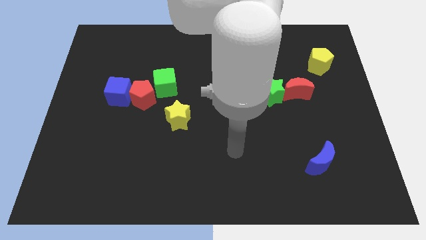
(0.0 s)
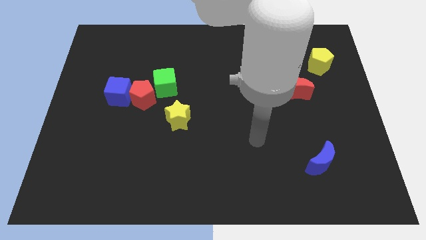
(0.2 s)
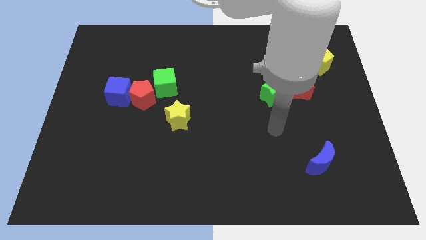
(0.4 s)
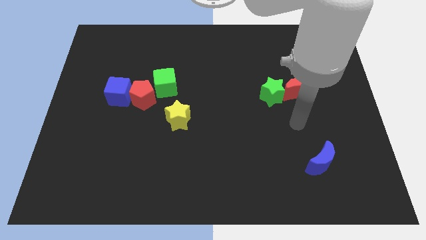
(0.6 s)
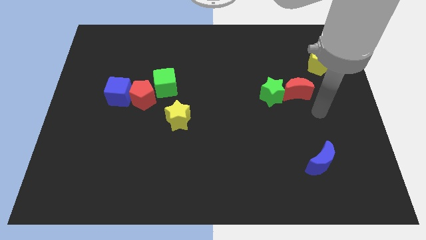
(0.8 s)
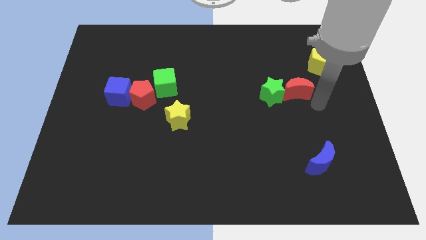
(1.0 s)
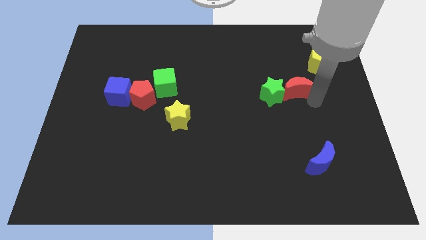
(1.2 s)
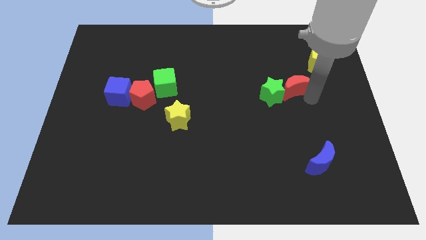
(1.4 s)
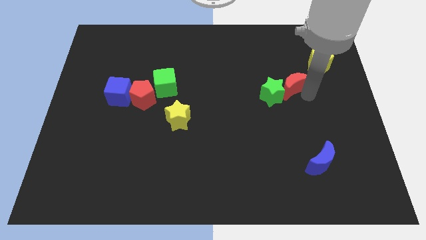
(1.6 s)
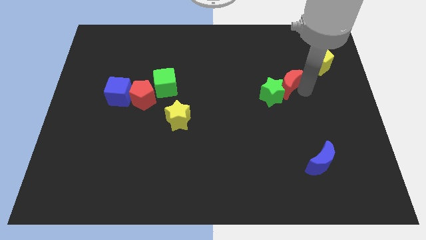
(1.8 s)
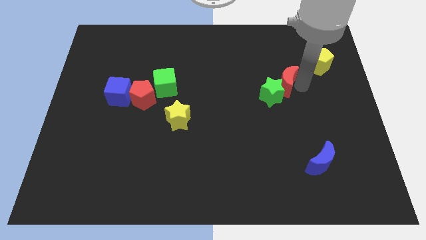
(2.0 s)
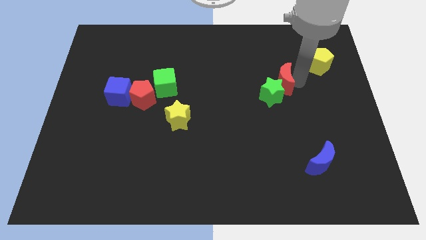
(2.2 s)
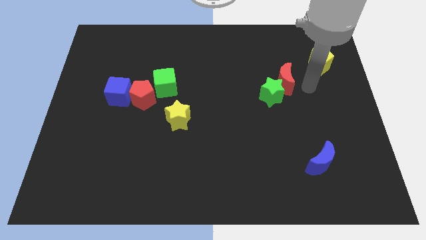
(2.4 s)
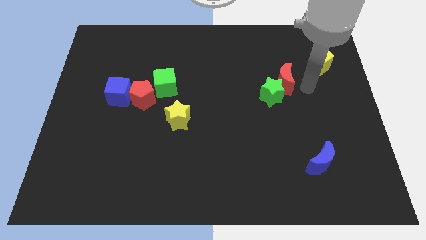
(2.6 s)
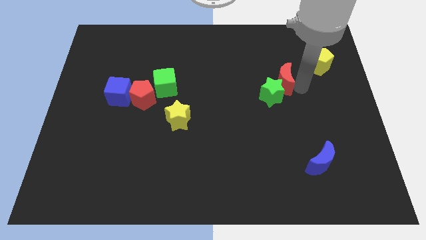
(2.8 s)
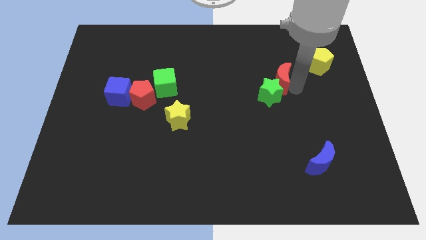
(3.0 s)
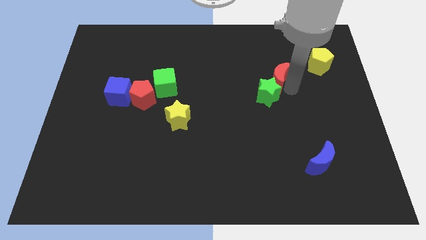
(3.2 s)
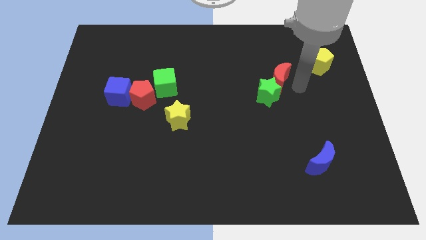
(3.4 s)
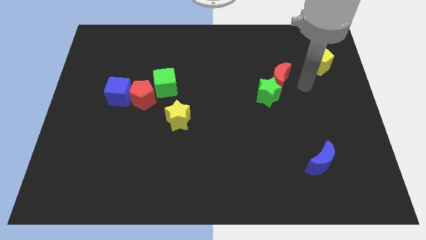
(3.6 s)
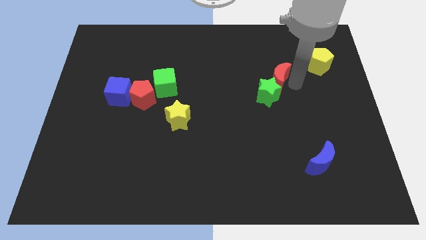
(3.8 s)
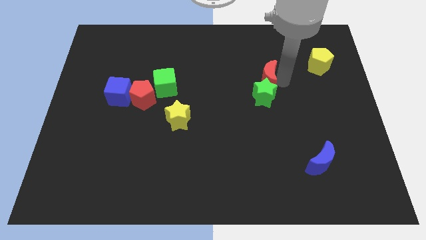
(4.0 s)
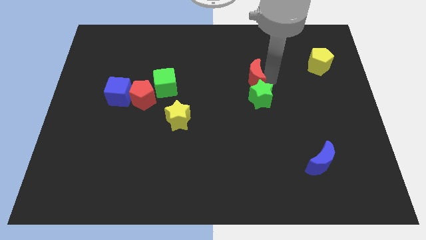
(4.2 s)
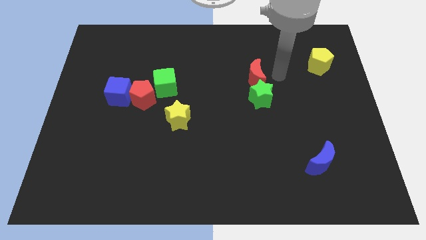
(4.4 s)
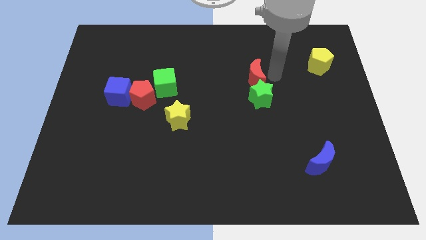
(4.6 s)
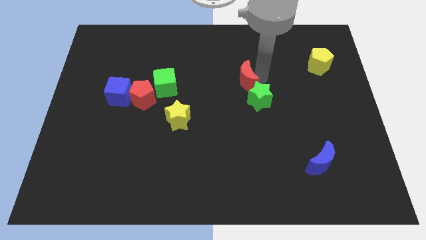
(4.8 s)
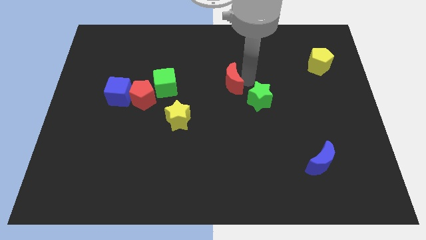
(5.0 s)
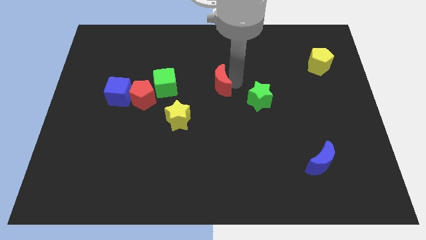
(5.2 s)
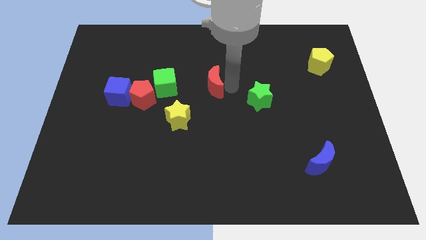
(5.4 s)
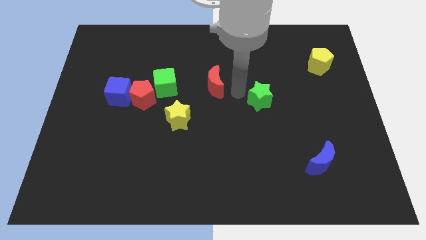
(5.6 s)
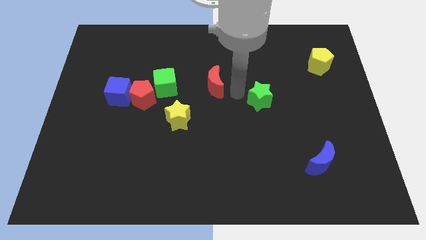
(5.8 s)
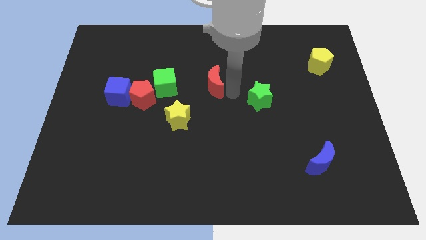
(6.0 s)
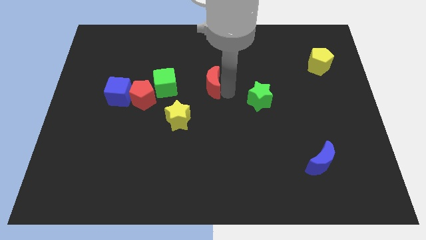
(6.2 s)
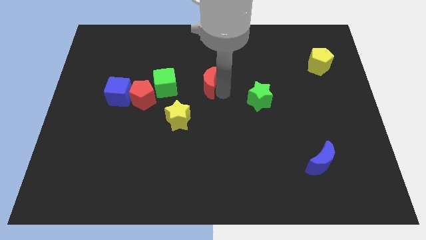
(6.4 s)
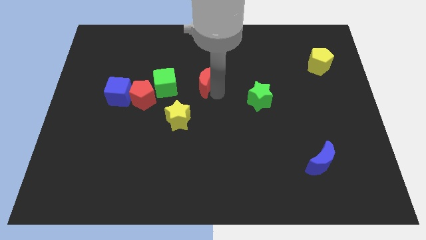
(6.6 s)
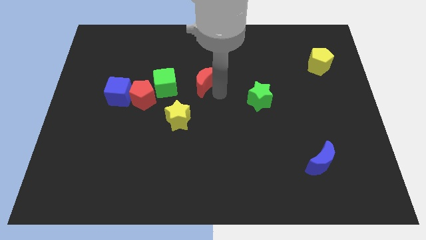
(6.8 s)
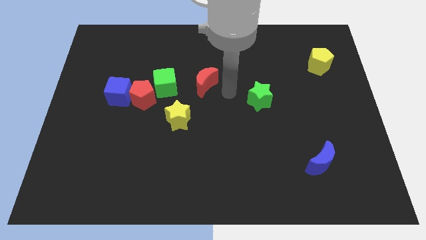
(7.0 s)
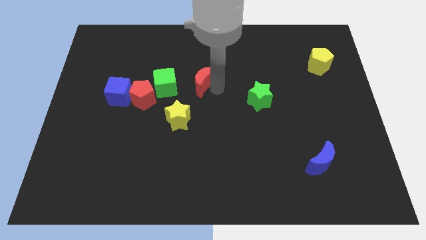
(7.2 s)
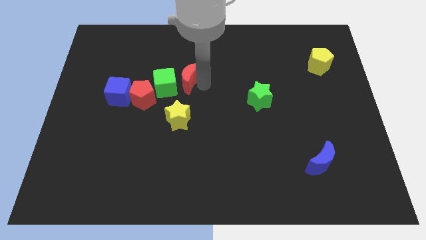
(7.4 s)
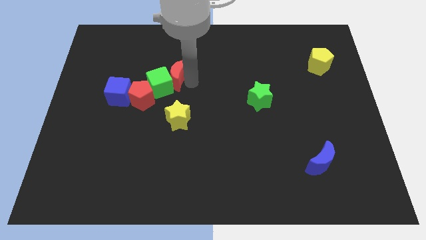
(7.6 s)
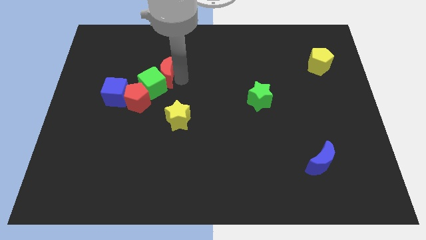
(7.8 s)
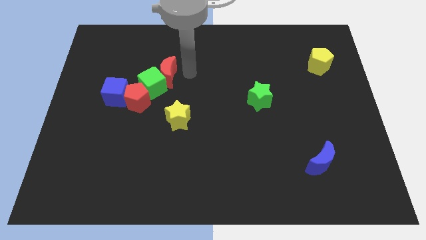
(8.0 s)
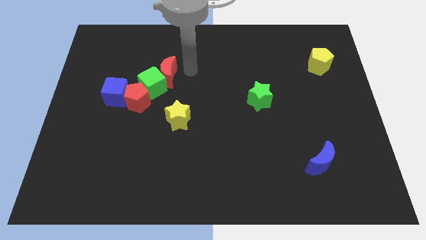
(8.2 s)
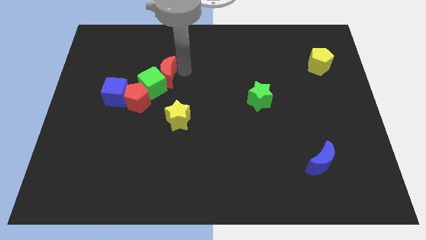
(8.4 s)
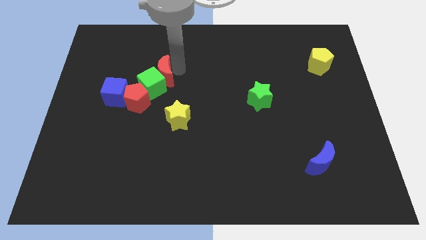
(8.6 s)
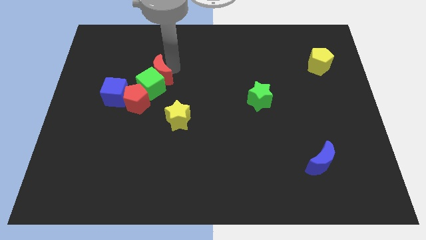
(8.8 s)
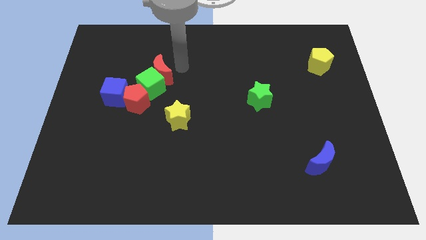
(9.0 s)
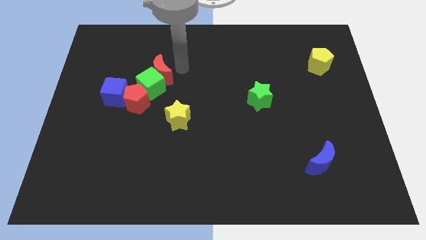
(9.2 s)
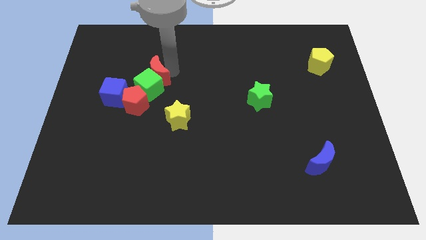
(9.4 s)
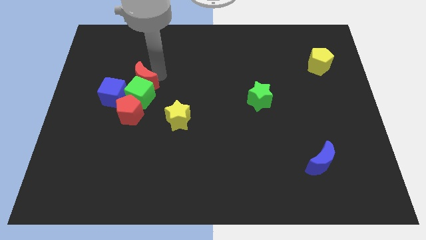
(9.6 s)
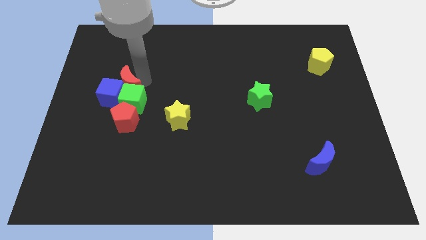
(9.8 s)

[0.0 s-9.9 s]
push the red moon close to the blue cube

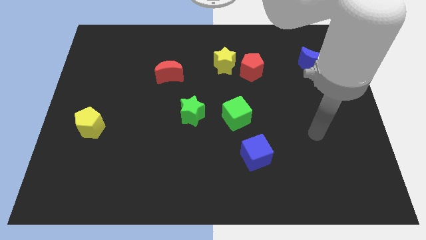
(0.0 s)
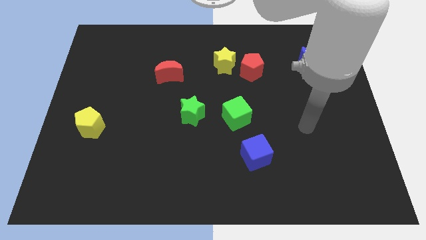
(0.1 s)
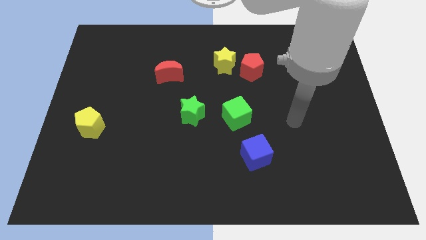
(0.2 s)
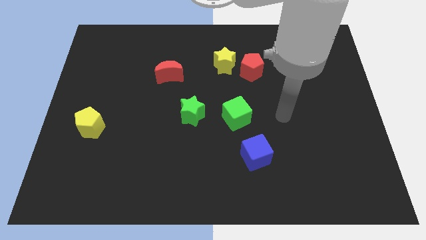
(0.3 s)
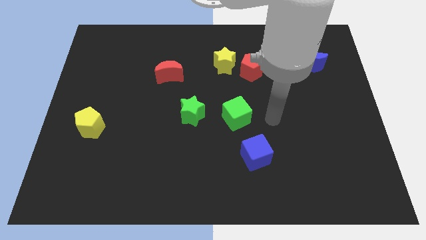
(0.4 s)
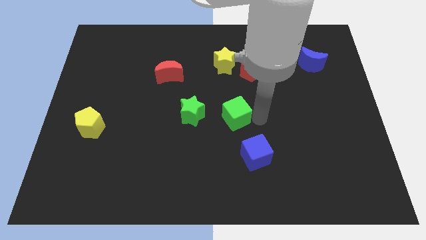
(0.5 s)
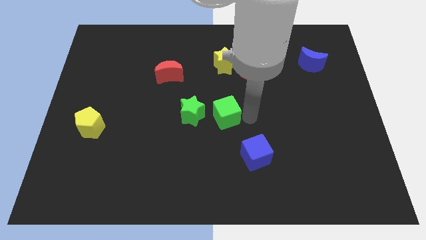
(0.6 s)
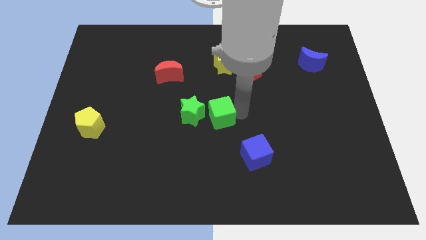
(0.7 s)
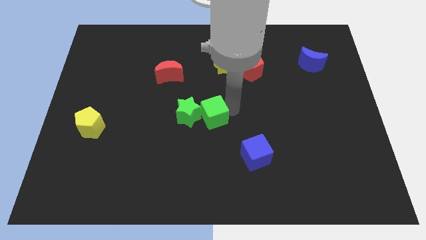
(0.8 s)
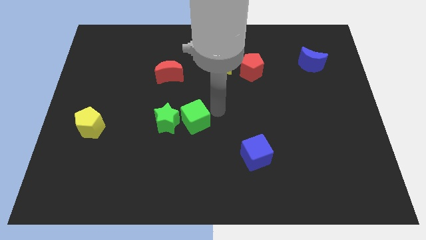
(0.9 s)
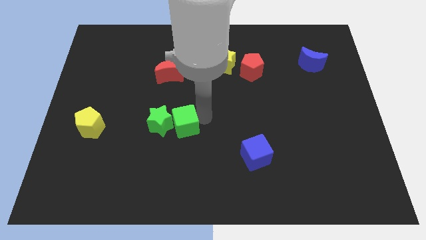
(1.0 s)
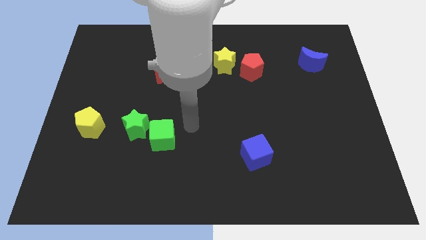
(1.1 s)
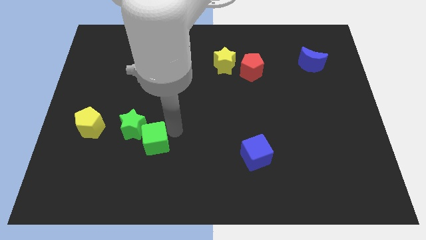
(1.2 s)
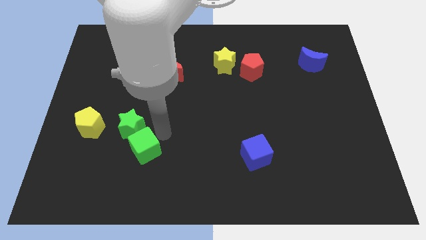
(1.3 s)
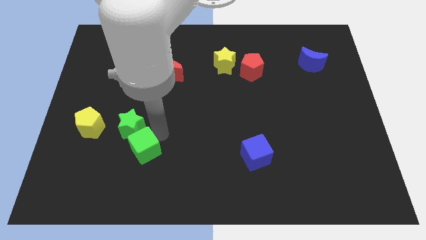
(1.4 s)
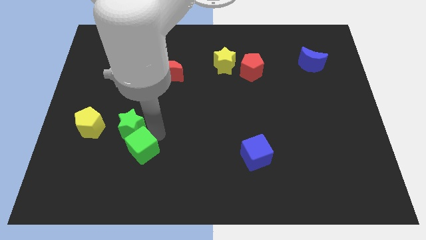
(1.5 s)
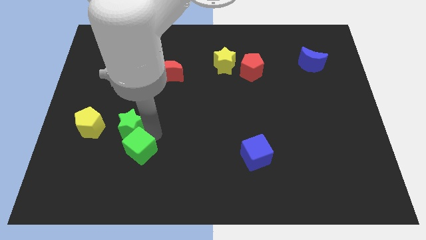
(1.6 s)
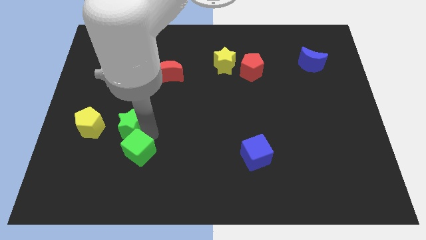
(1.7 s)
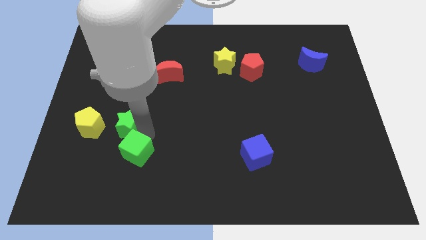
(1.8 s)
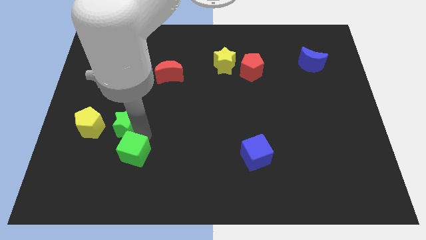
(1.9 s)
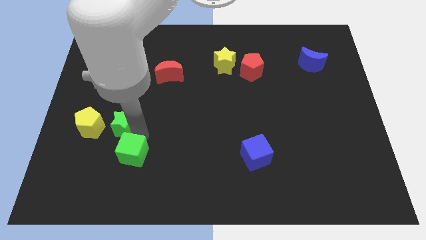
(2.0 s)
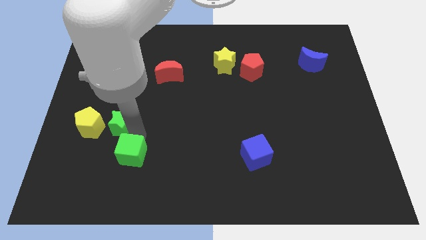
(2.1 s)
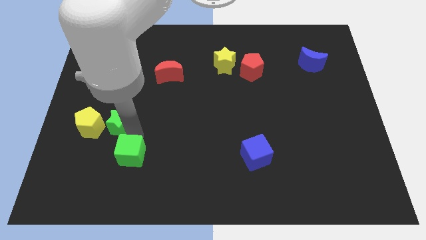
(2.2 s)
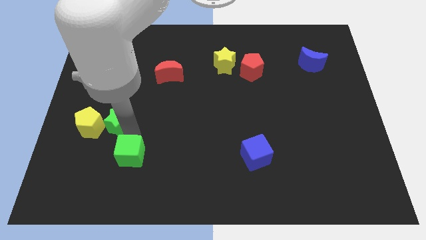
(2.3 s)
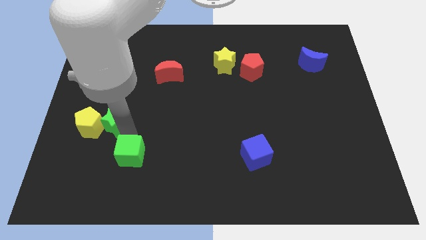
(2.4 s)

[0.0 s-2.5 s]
slide the green star next to the yellow pentagon

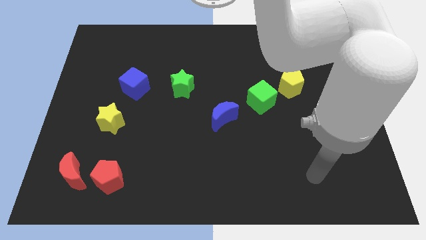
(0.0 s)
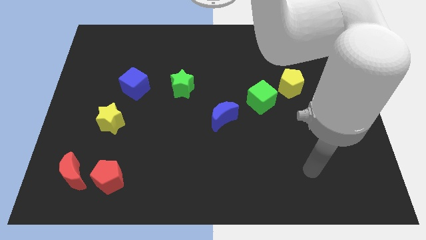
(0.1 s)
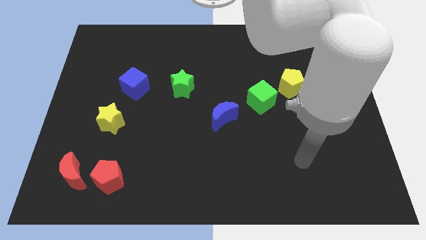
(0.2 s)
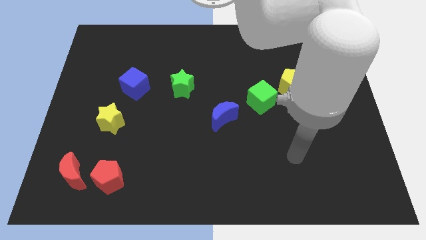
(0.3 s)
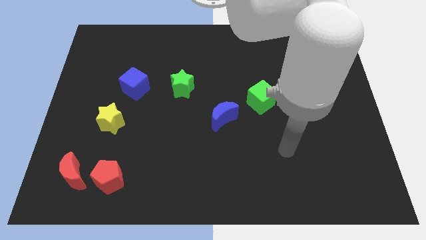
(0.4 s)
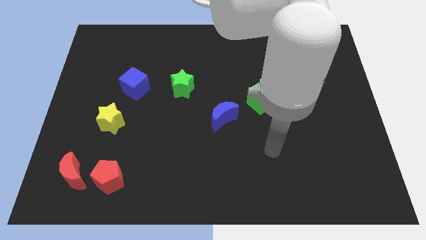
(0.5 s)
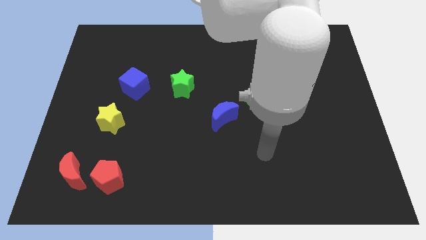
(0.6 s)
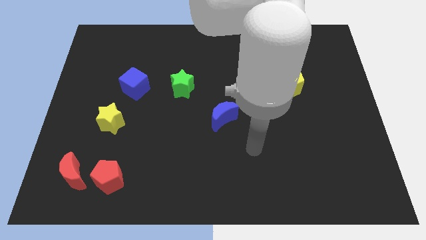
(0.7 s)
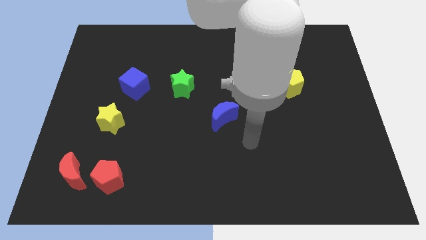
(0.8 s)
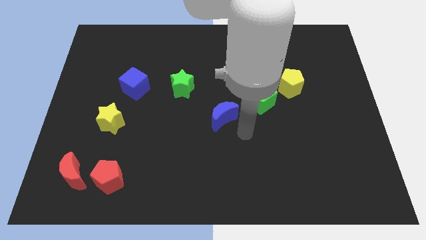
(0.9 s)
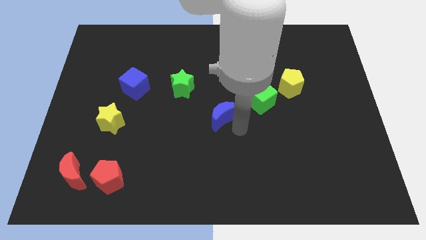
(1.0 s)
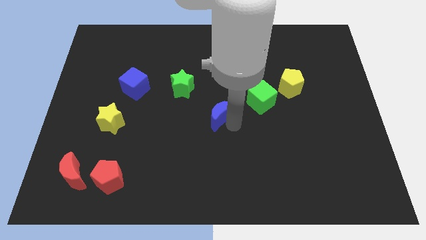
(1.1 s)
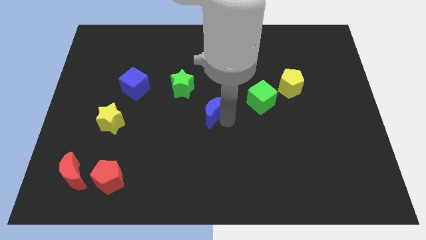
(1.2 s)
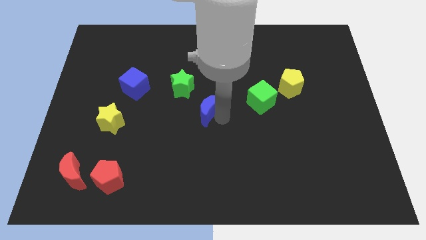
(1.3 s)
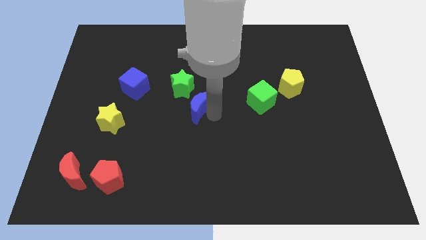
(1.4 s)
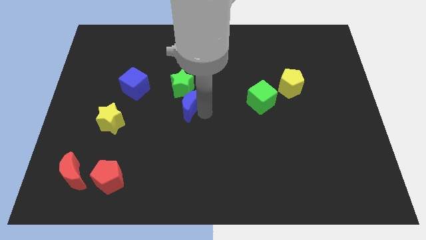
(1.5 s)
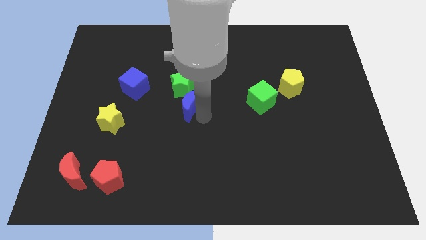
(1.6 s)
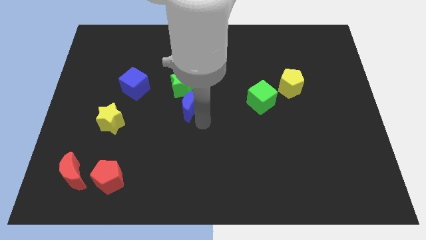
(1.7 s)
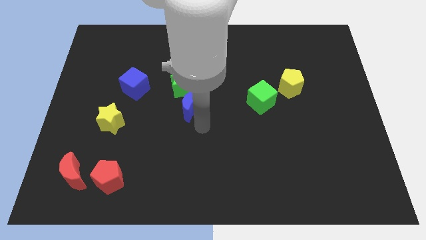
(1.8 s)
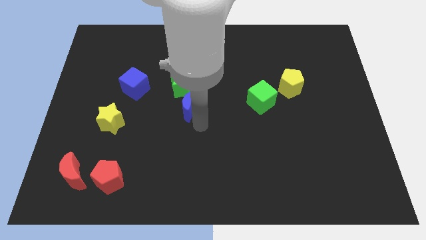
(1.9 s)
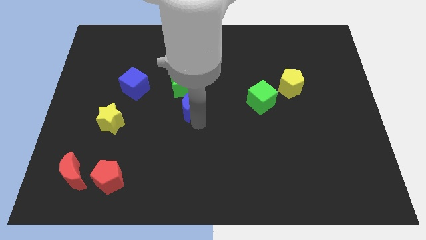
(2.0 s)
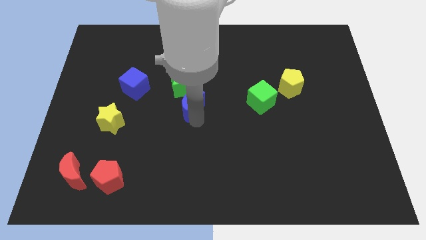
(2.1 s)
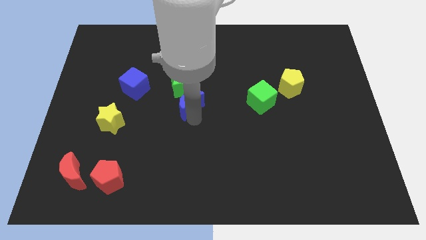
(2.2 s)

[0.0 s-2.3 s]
put the blue moon towards the green star
